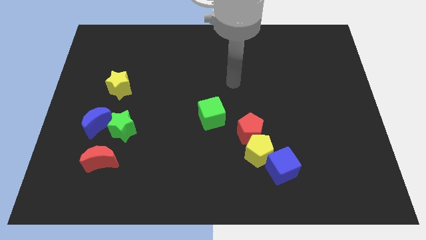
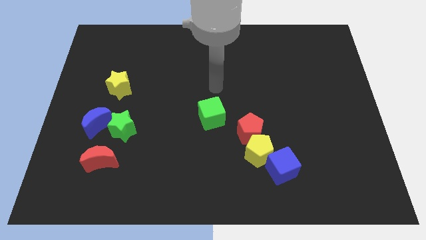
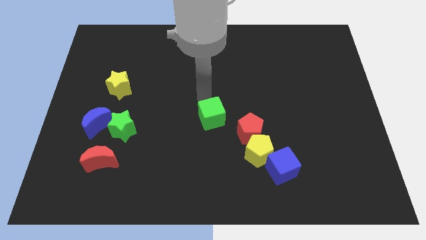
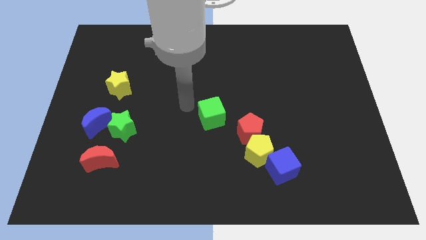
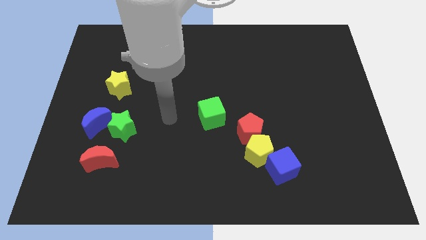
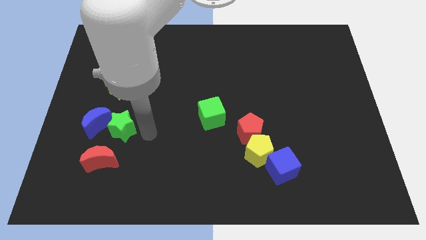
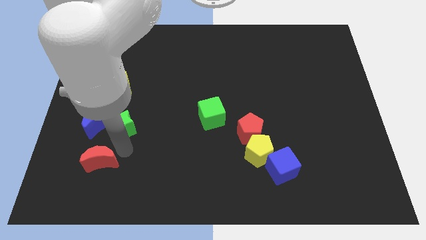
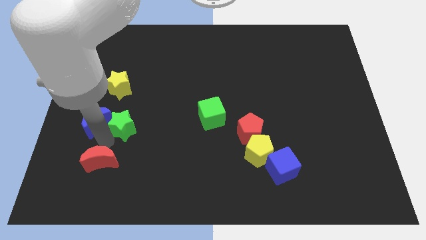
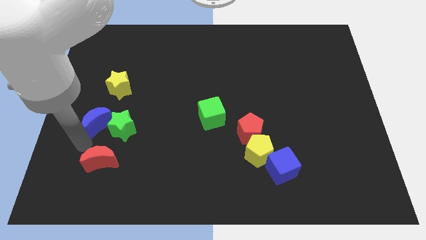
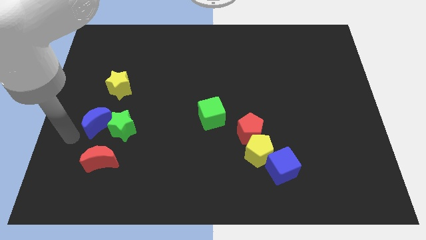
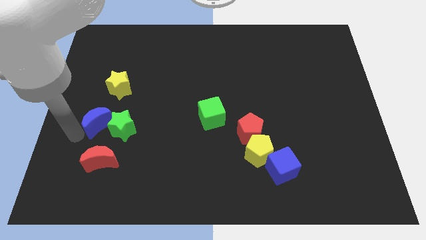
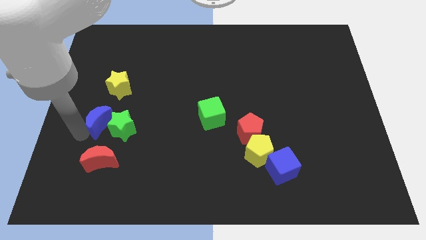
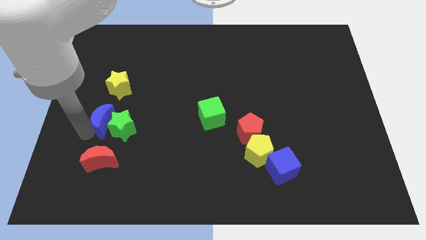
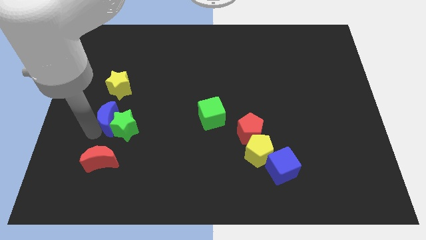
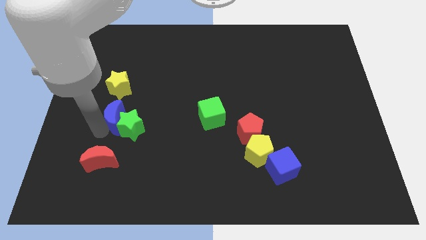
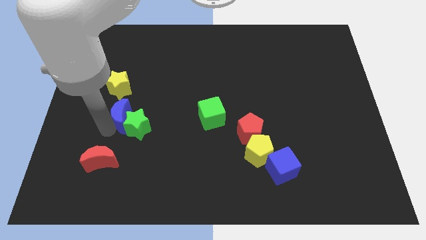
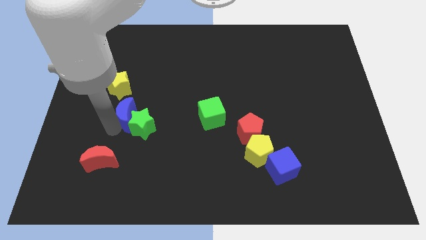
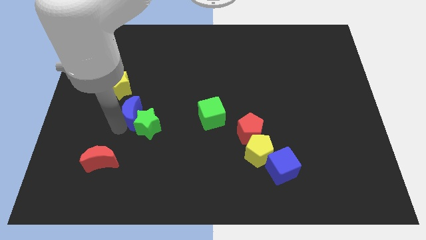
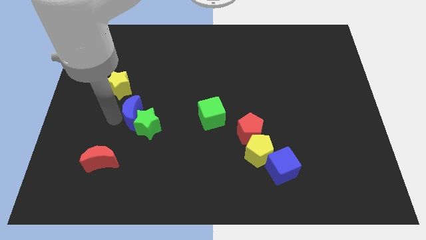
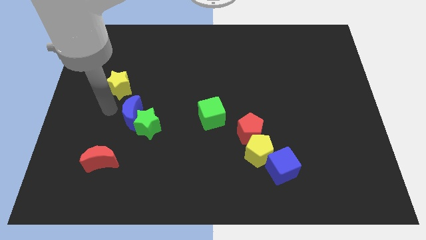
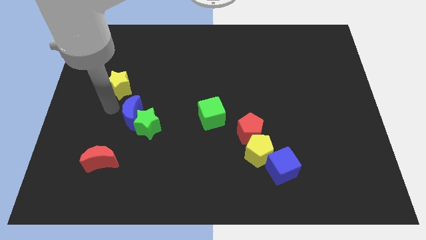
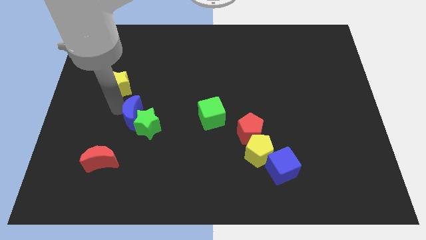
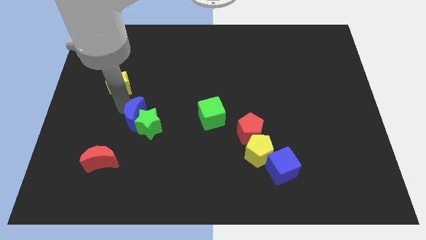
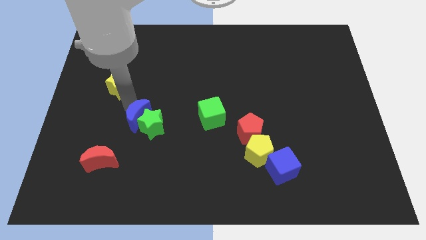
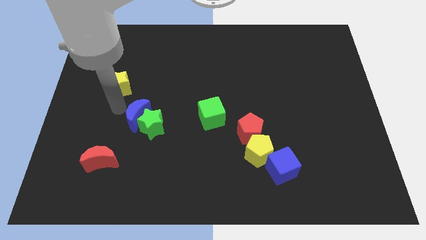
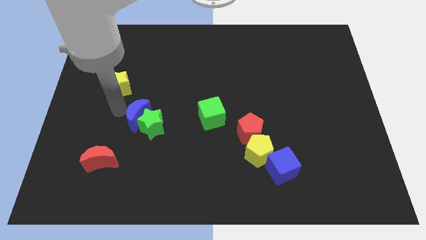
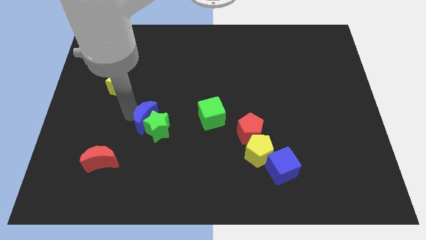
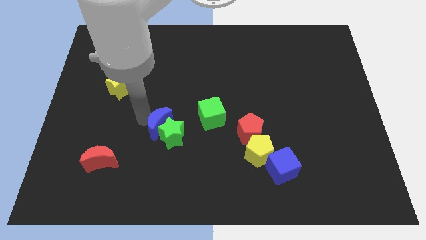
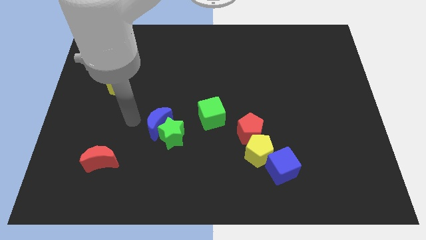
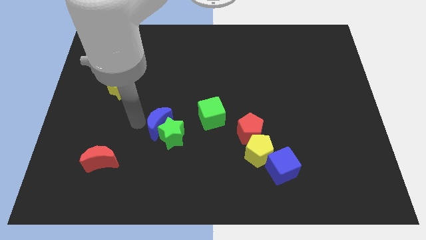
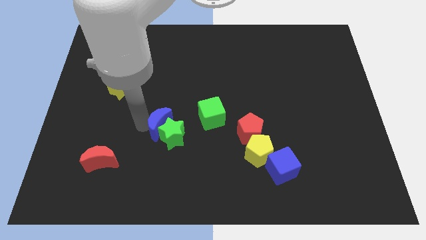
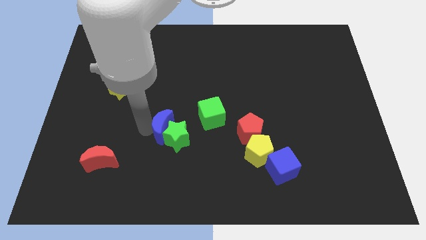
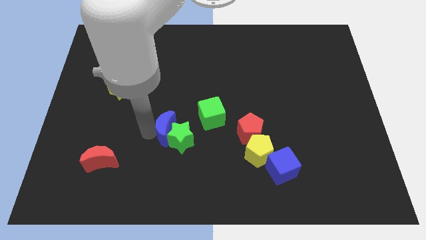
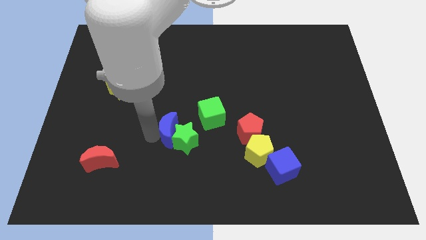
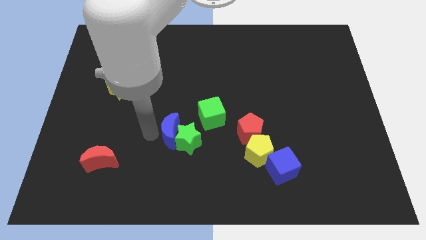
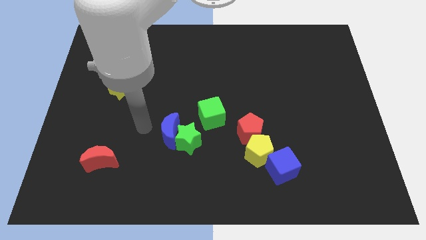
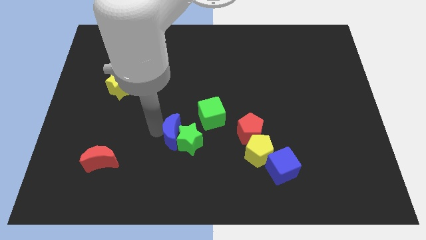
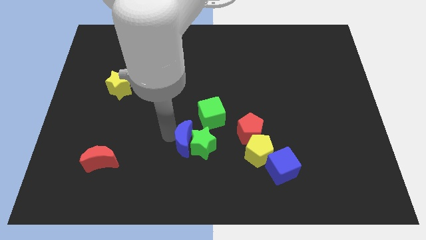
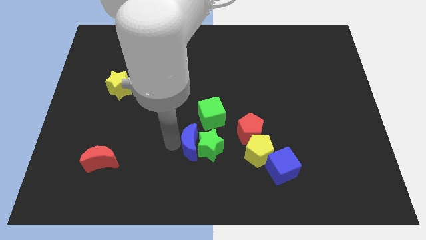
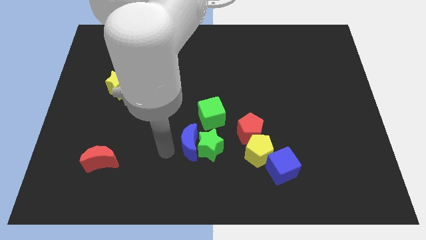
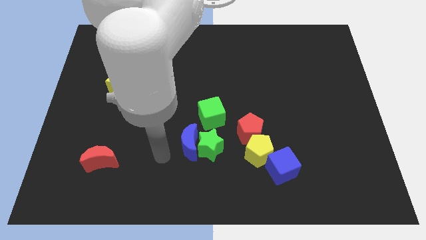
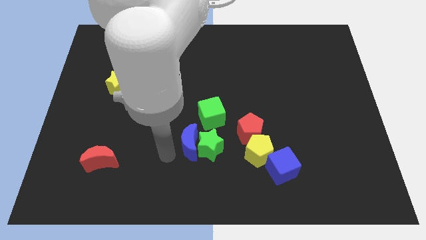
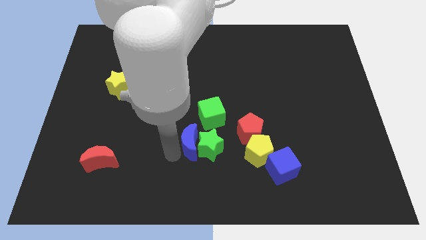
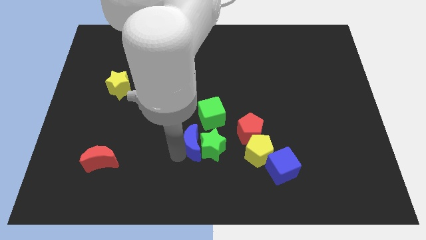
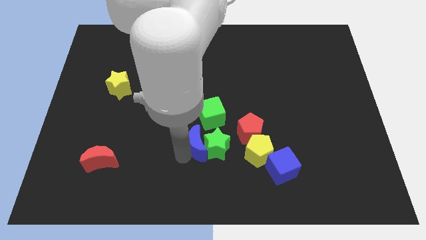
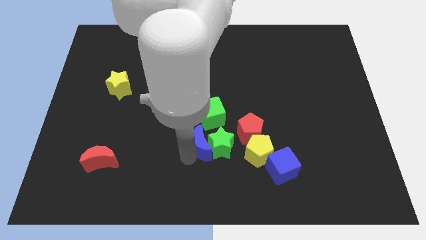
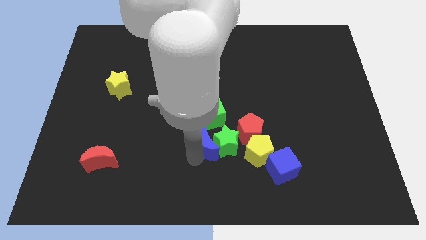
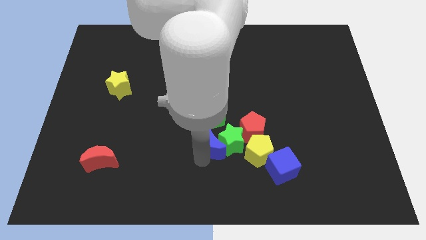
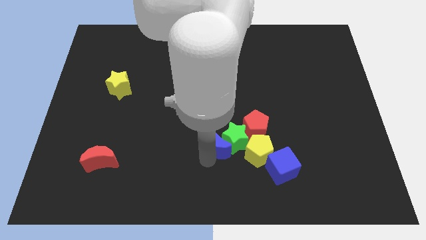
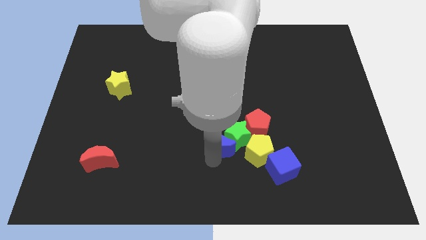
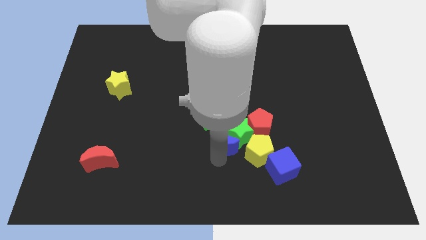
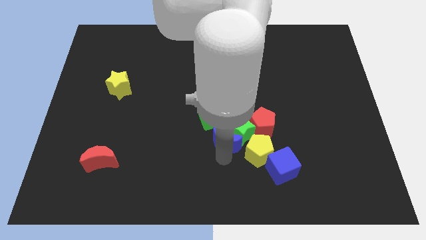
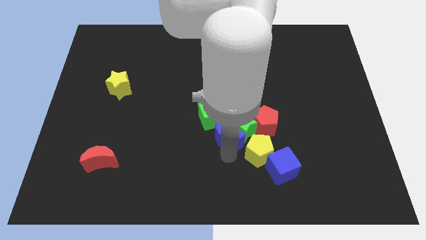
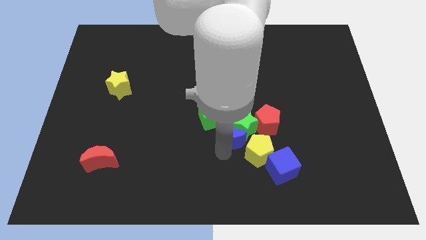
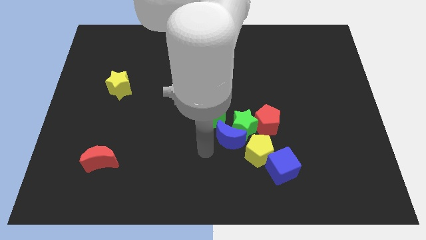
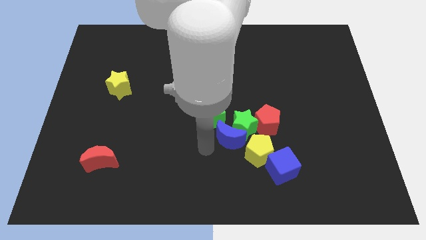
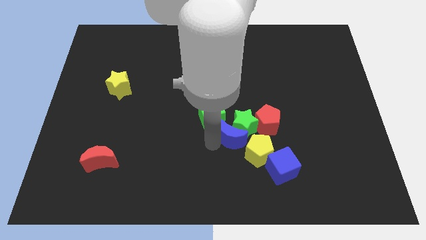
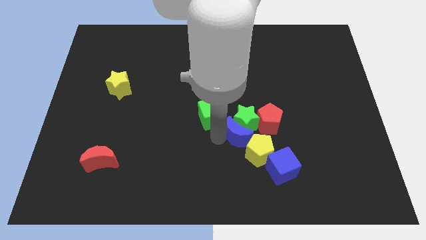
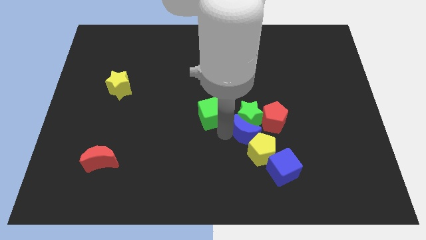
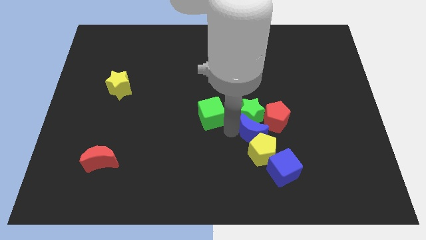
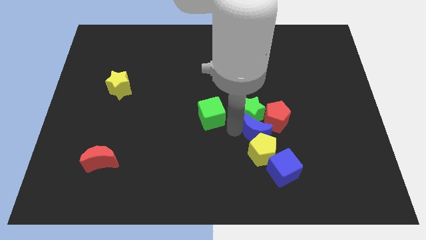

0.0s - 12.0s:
slide the blue moon close to the red pentagon

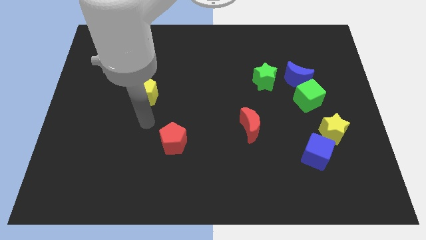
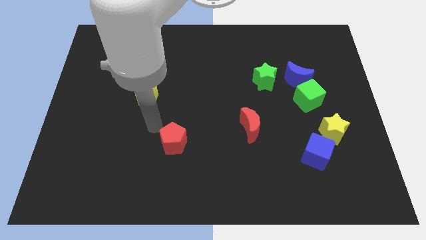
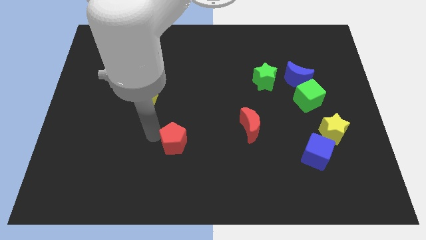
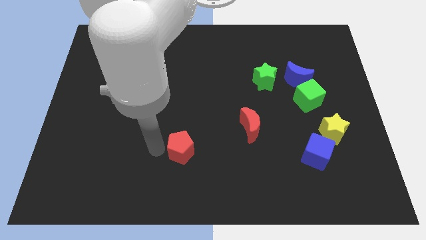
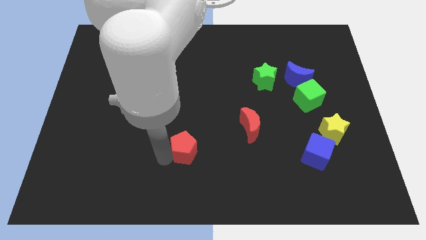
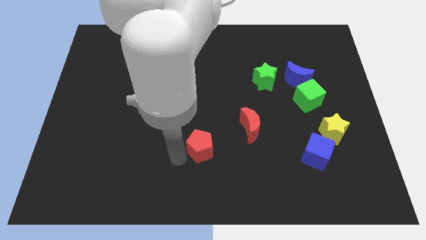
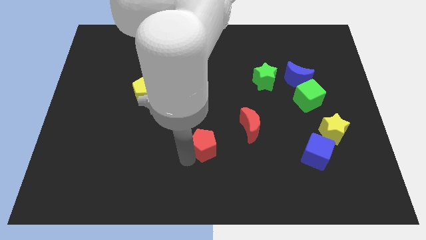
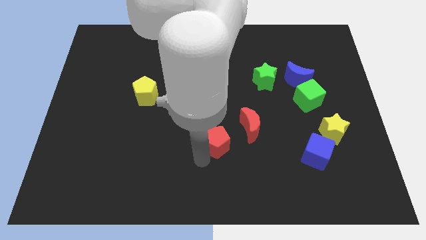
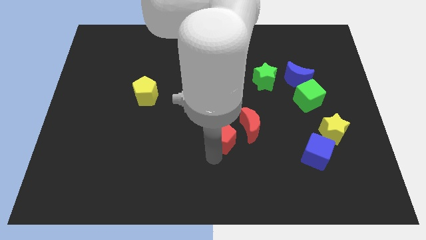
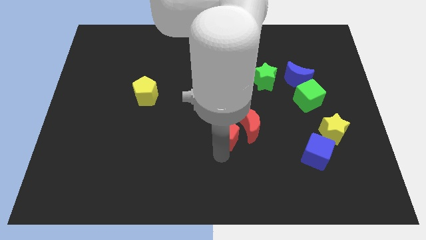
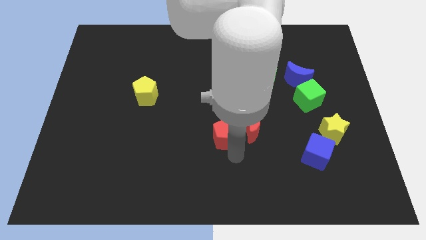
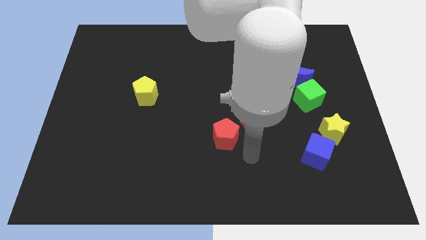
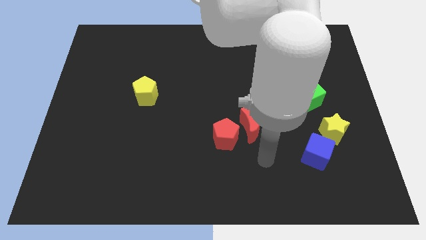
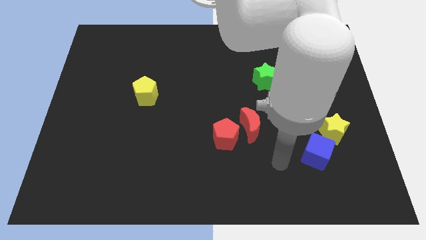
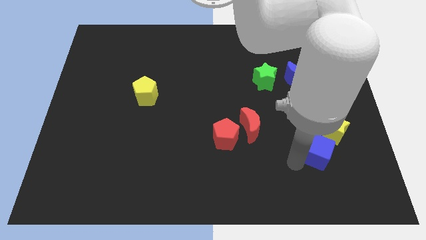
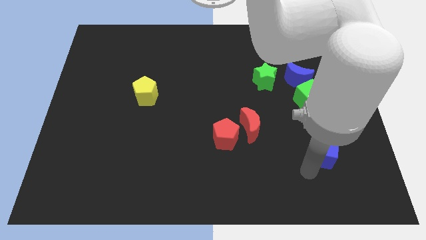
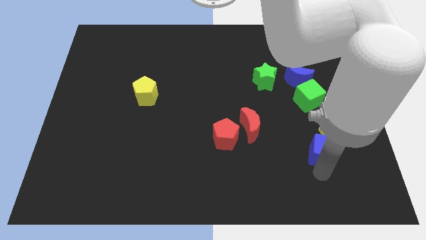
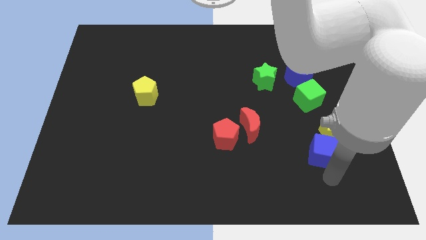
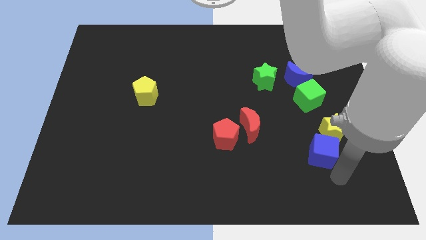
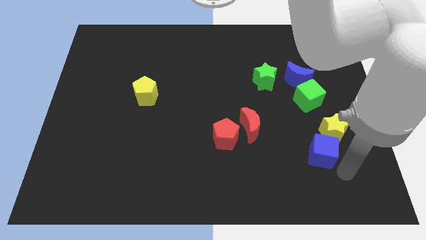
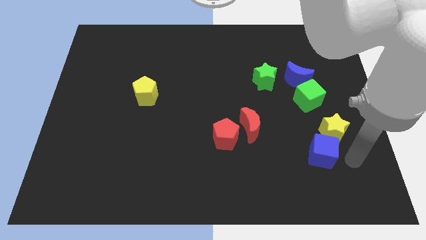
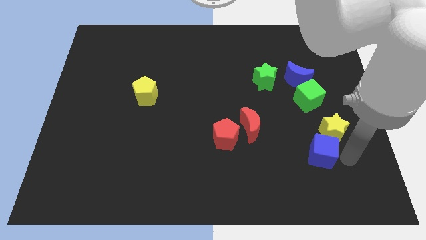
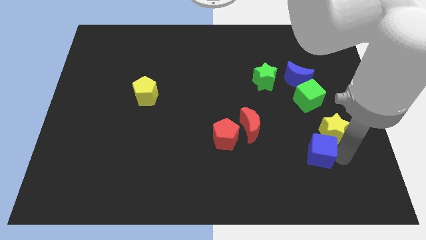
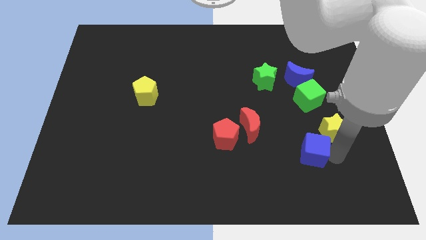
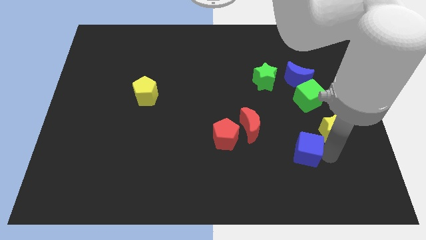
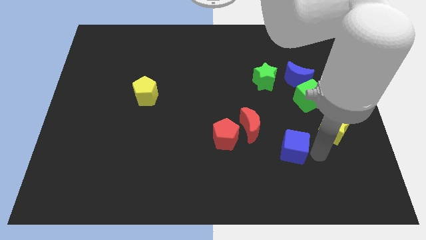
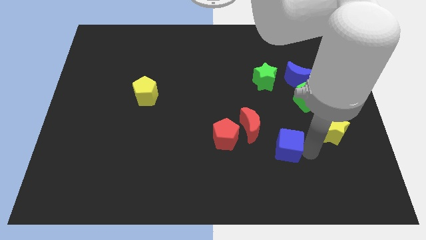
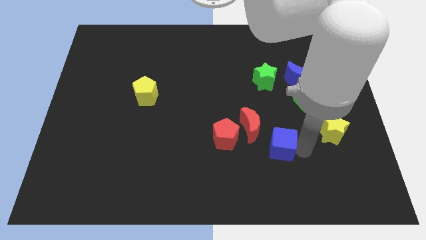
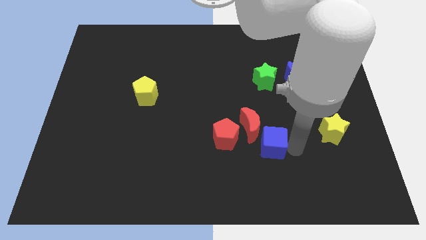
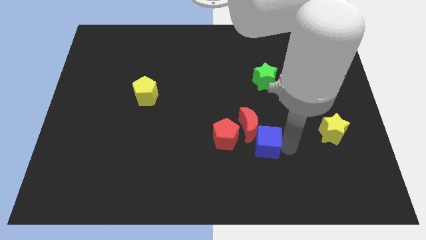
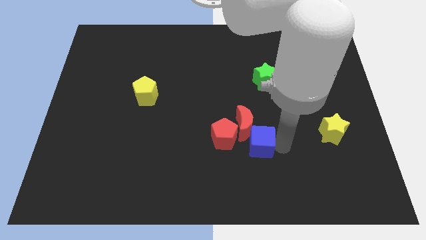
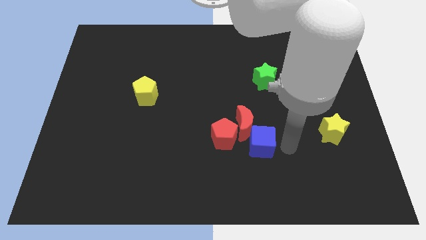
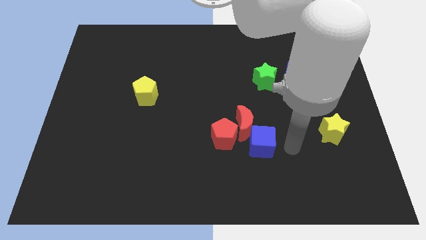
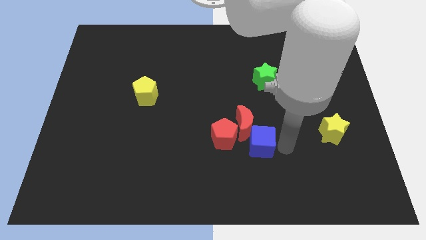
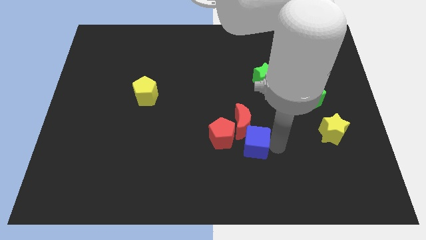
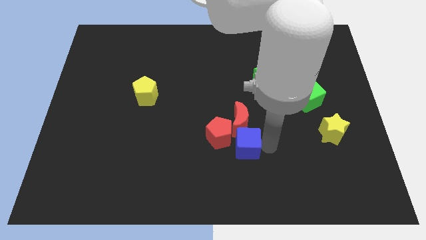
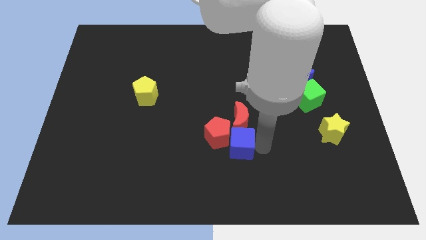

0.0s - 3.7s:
move the blue cube close to the red pentagon
